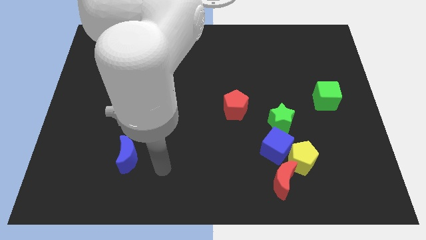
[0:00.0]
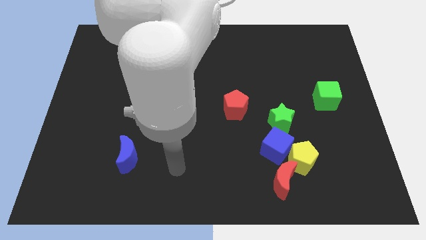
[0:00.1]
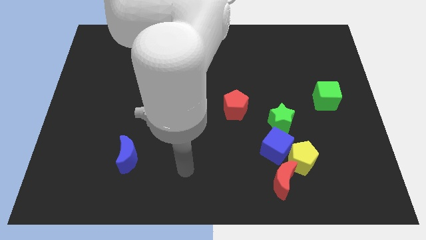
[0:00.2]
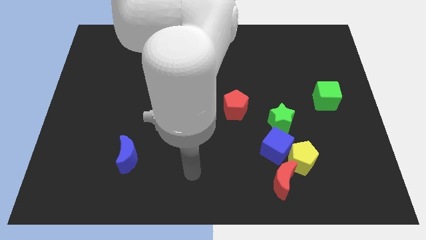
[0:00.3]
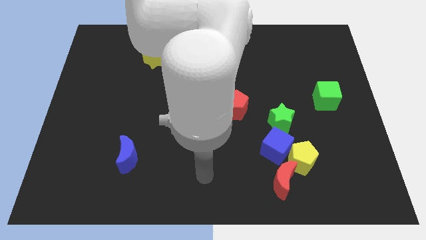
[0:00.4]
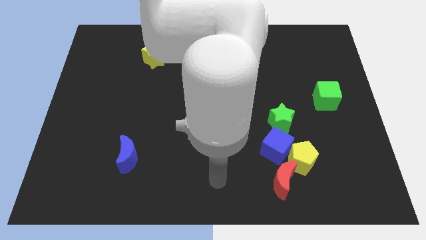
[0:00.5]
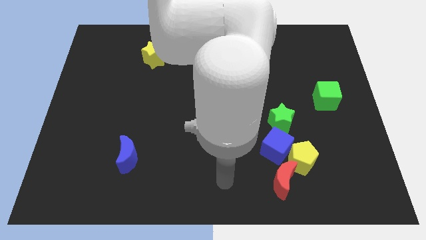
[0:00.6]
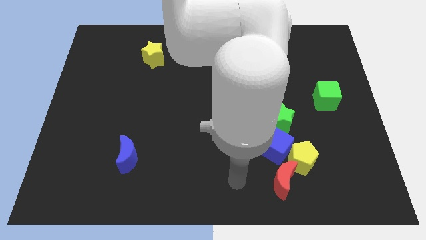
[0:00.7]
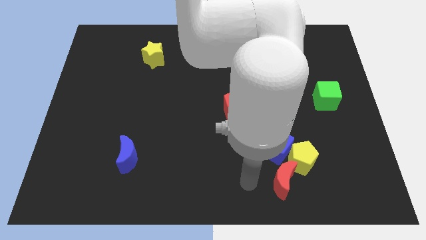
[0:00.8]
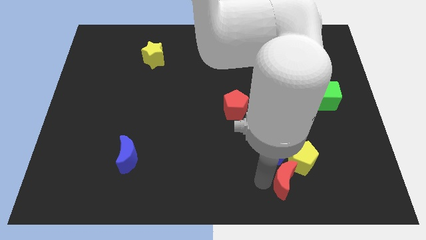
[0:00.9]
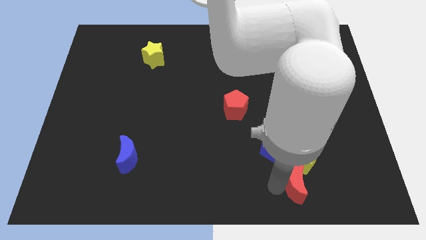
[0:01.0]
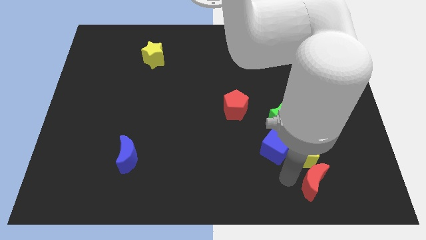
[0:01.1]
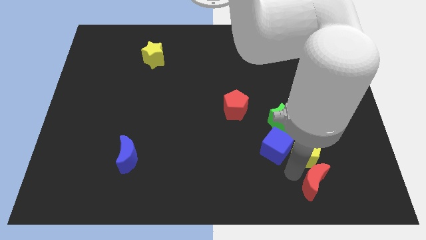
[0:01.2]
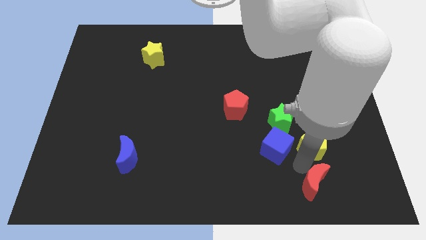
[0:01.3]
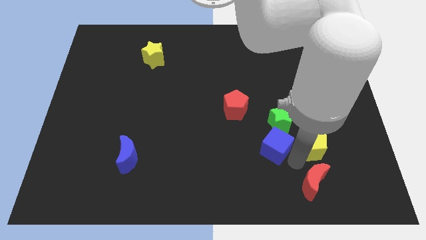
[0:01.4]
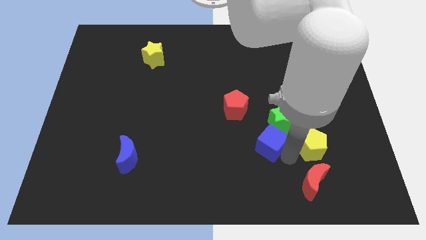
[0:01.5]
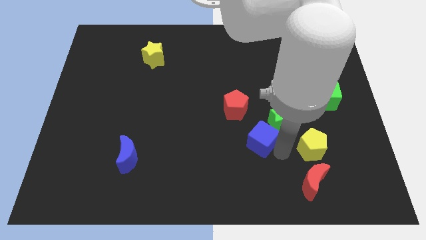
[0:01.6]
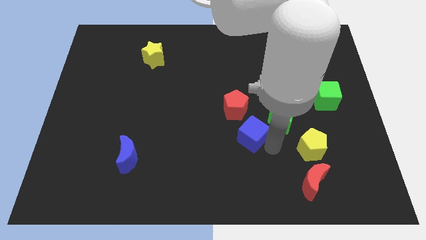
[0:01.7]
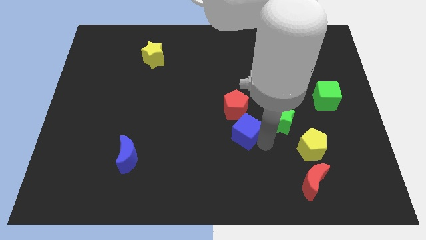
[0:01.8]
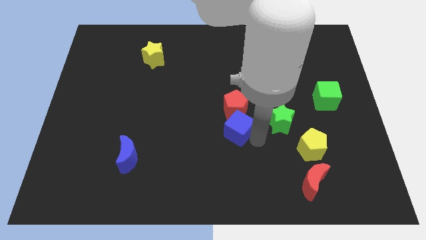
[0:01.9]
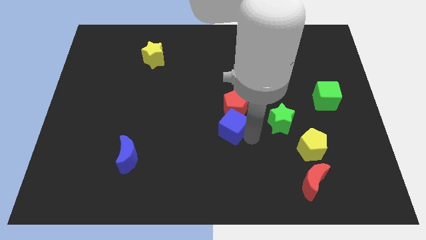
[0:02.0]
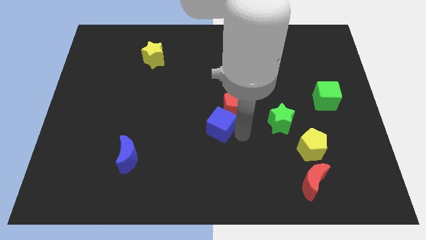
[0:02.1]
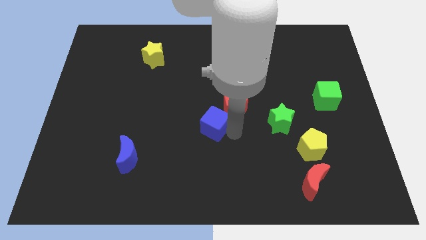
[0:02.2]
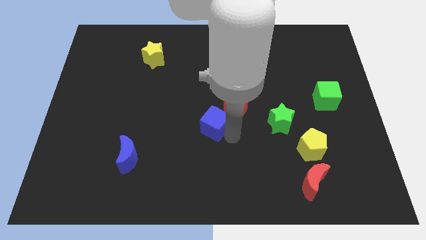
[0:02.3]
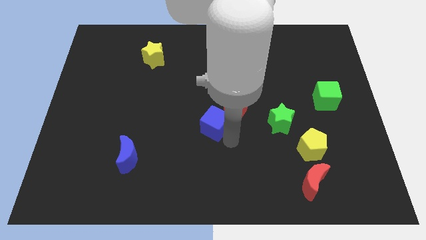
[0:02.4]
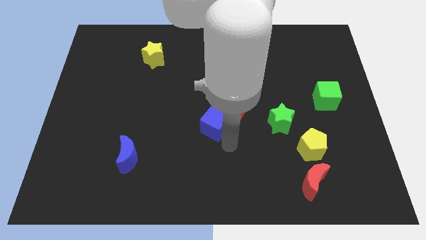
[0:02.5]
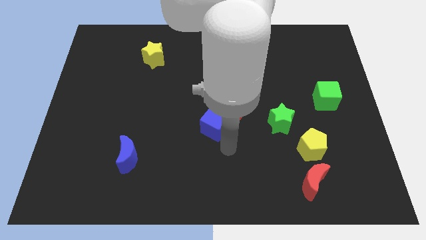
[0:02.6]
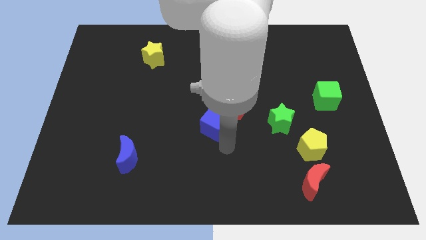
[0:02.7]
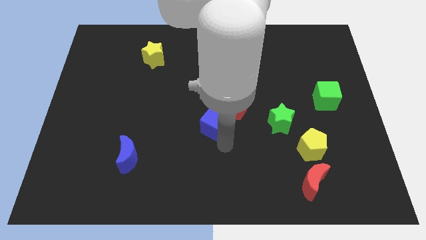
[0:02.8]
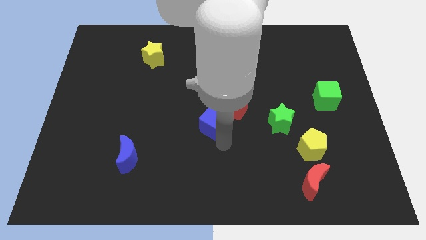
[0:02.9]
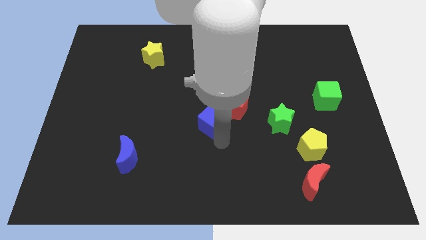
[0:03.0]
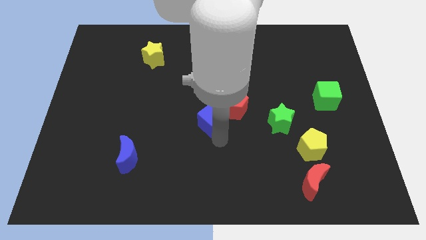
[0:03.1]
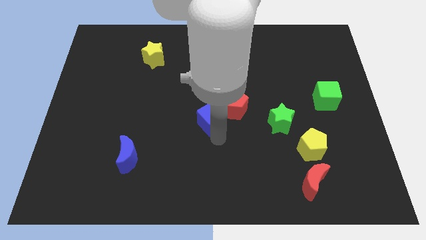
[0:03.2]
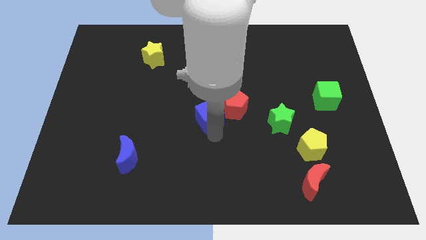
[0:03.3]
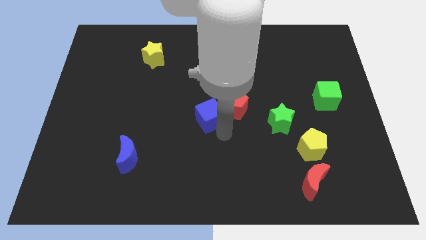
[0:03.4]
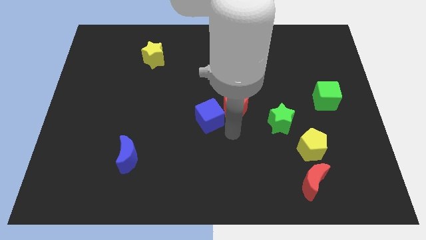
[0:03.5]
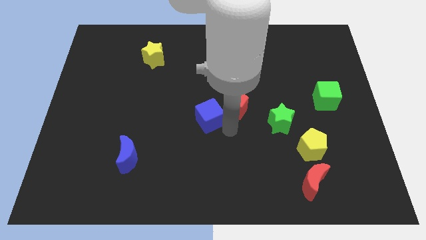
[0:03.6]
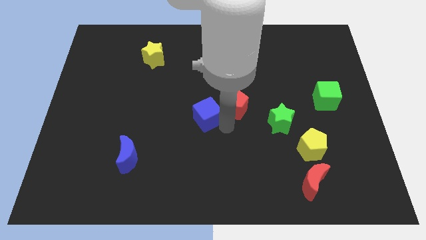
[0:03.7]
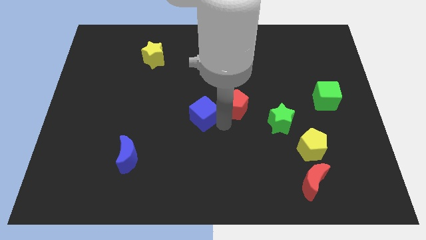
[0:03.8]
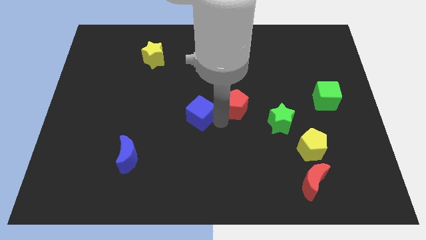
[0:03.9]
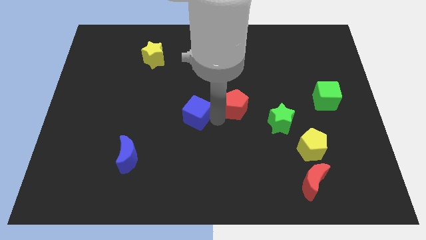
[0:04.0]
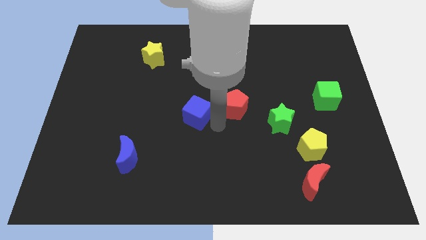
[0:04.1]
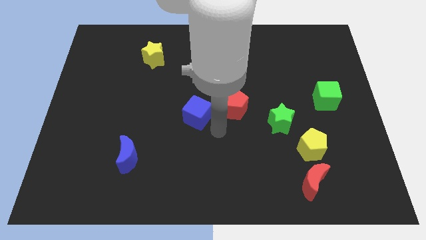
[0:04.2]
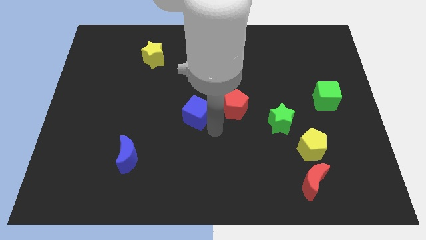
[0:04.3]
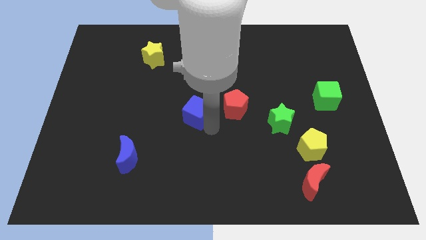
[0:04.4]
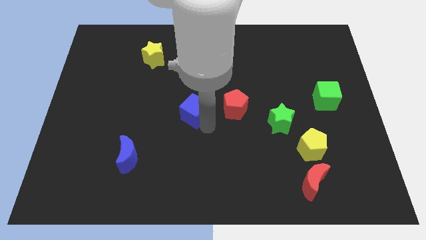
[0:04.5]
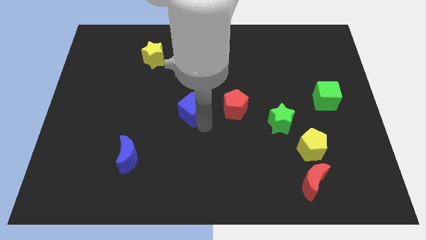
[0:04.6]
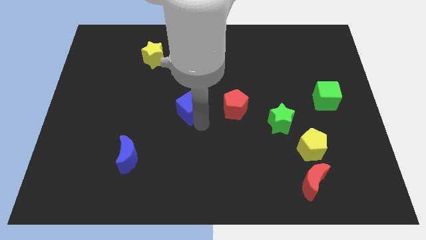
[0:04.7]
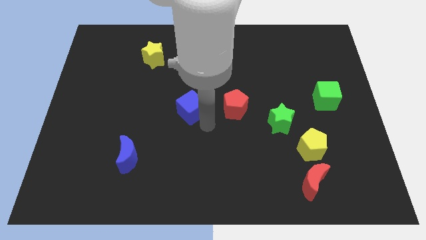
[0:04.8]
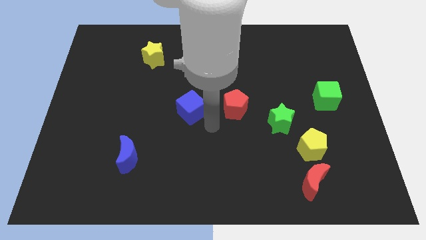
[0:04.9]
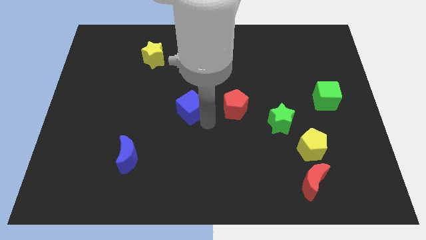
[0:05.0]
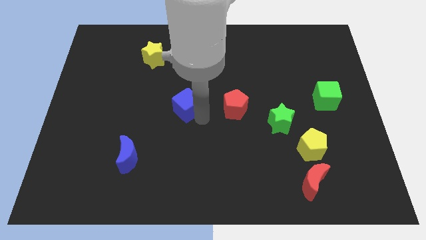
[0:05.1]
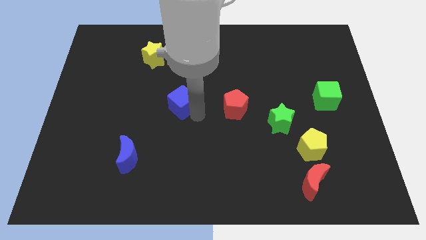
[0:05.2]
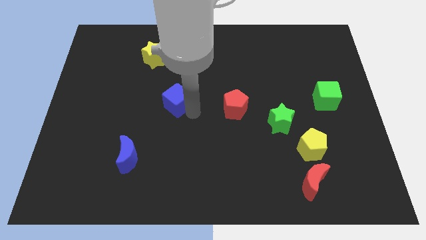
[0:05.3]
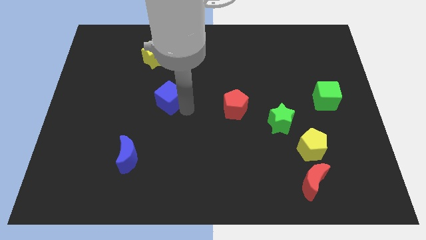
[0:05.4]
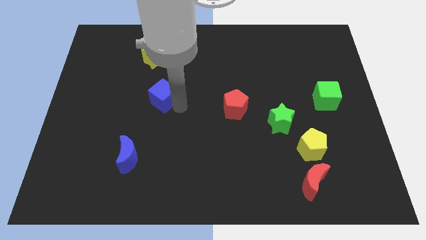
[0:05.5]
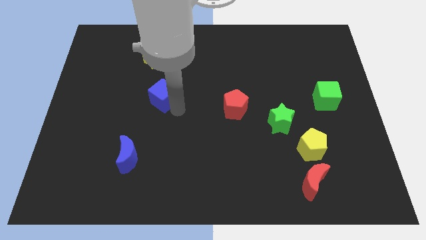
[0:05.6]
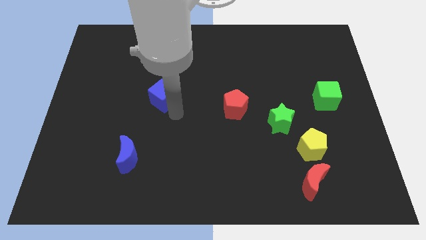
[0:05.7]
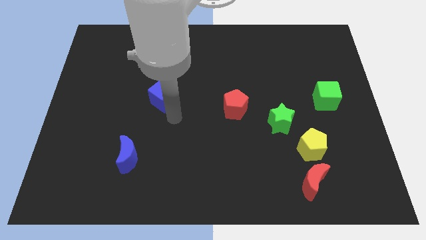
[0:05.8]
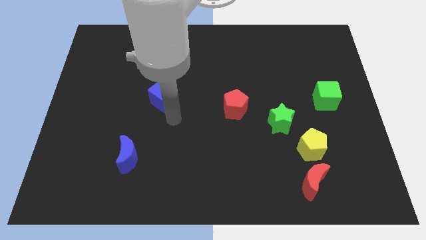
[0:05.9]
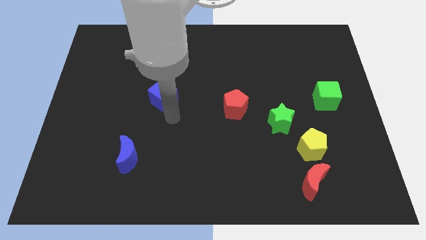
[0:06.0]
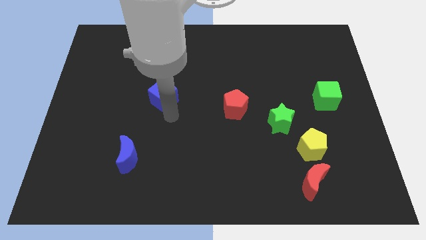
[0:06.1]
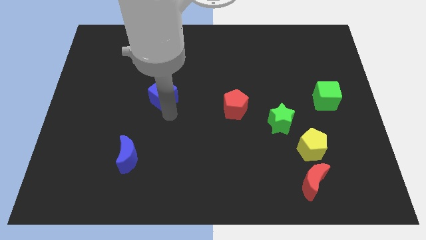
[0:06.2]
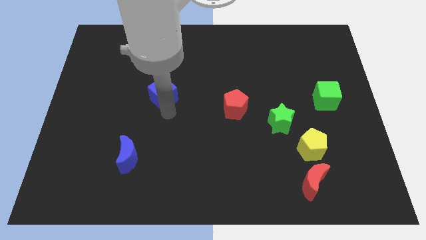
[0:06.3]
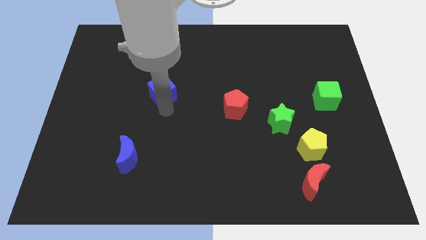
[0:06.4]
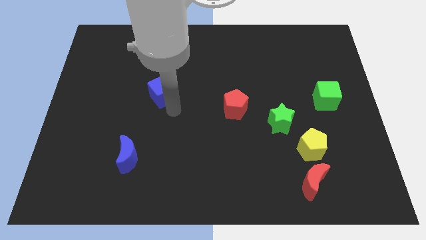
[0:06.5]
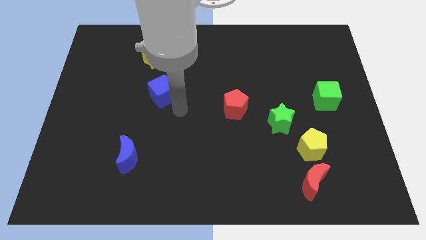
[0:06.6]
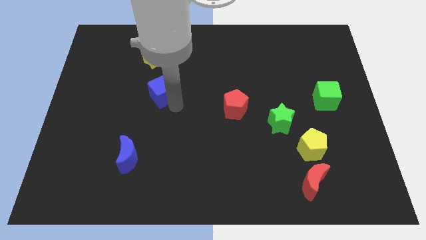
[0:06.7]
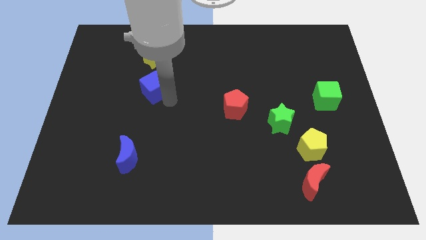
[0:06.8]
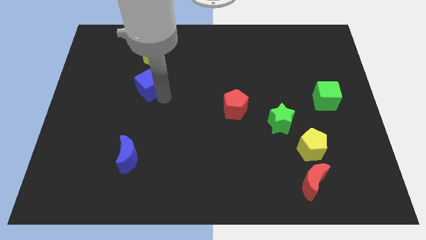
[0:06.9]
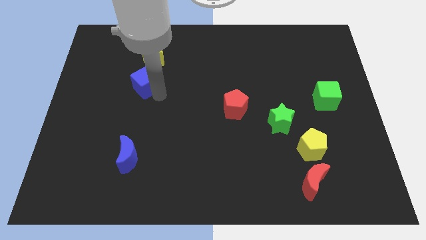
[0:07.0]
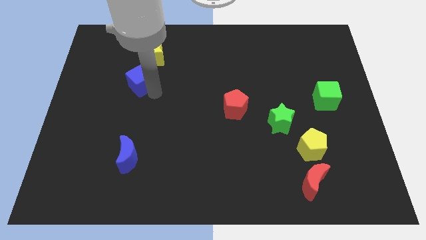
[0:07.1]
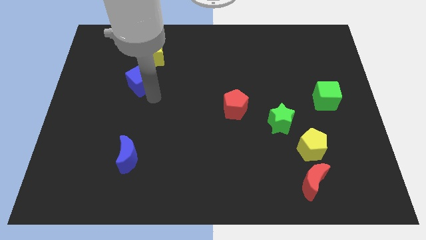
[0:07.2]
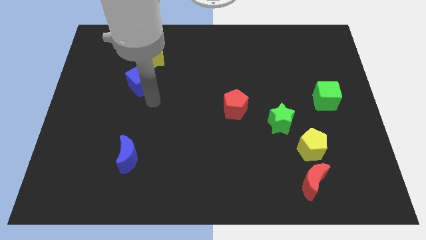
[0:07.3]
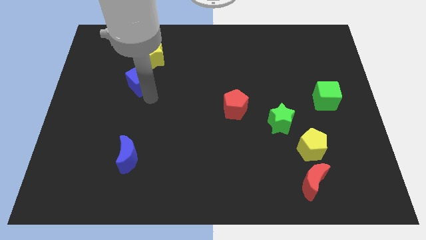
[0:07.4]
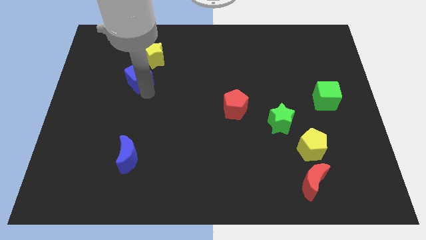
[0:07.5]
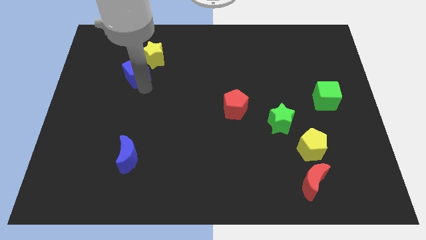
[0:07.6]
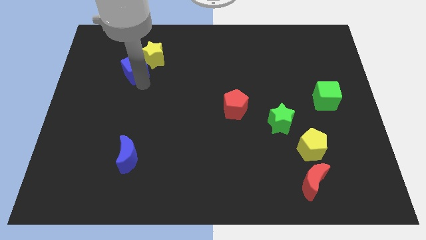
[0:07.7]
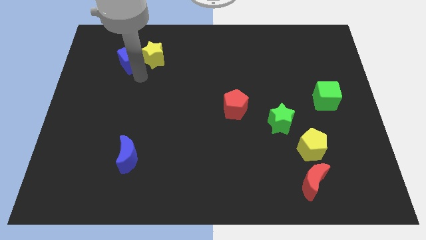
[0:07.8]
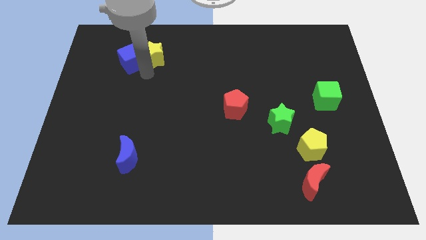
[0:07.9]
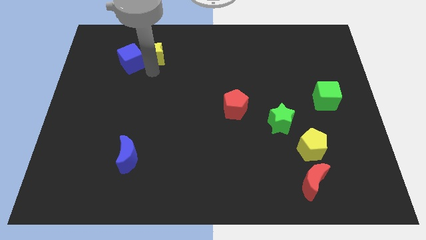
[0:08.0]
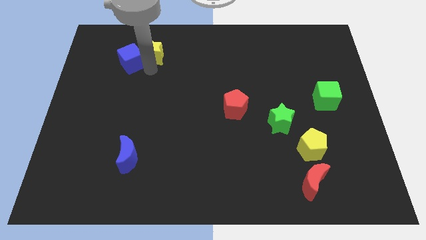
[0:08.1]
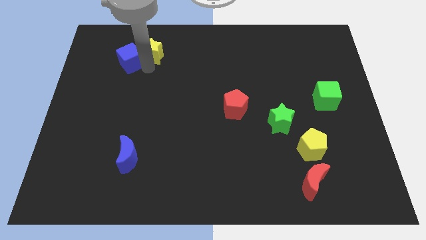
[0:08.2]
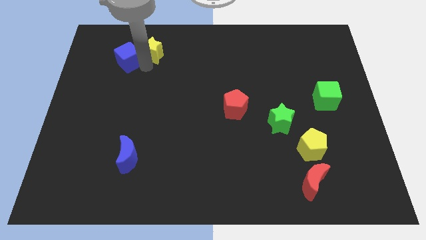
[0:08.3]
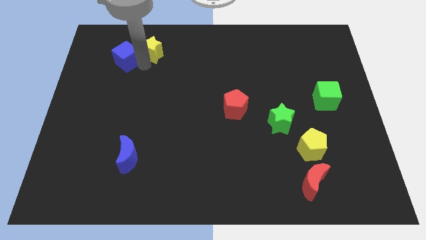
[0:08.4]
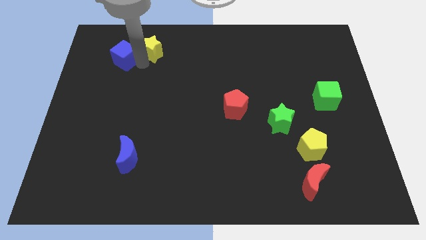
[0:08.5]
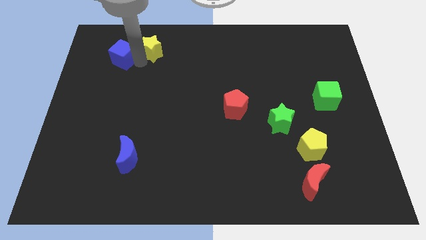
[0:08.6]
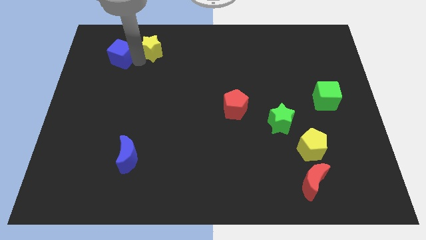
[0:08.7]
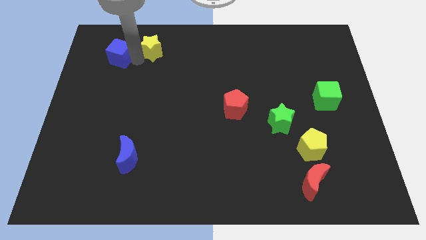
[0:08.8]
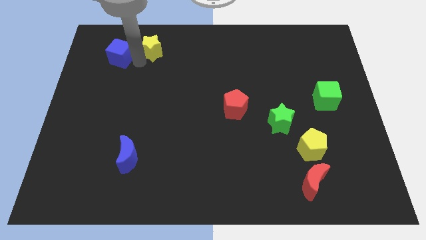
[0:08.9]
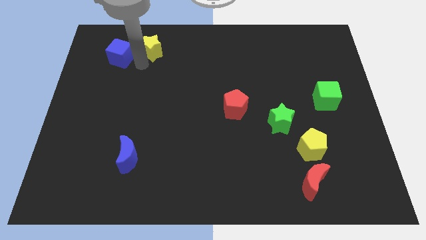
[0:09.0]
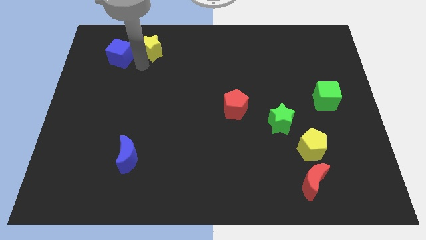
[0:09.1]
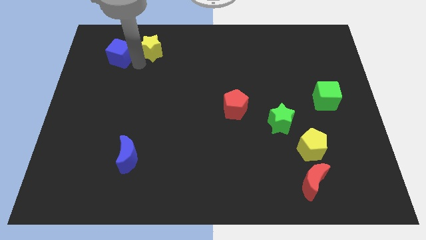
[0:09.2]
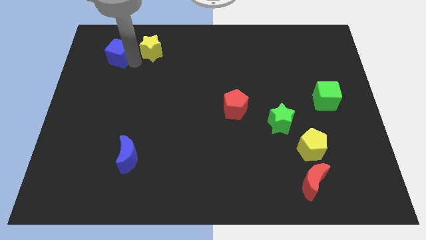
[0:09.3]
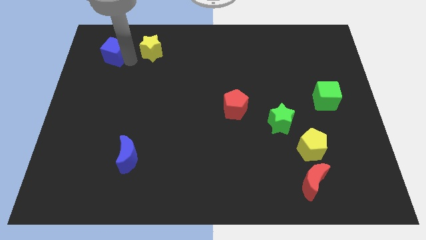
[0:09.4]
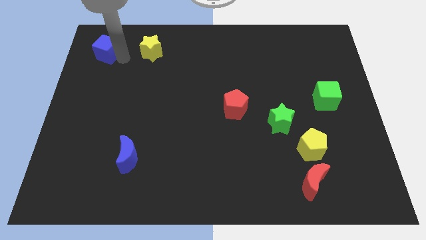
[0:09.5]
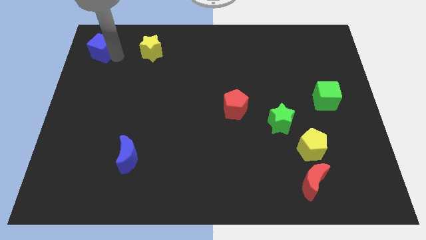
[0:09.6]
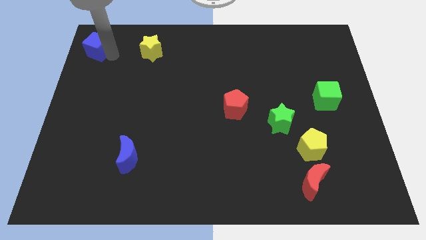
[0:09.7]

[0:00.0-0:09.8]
move the blue cube to the top left corner
